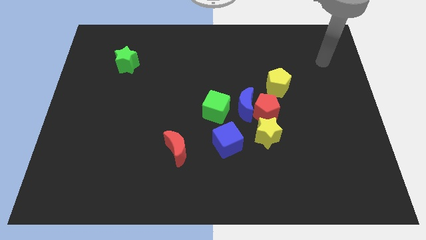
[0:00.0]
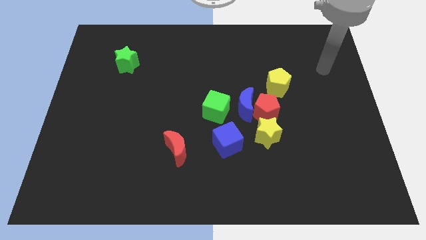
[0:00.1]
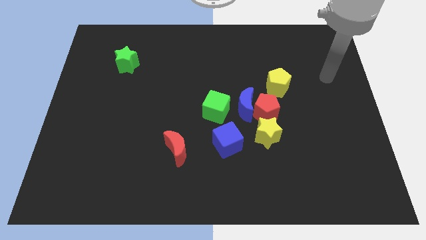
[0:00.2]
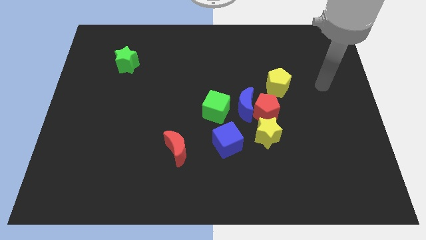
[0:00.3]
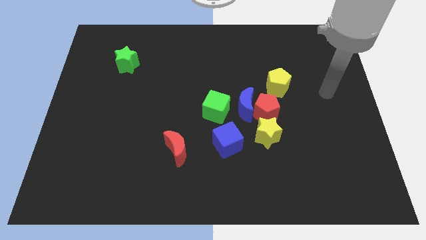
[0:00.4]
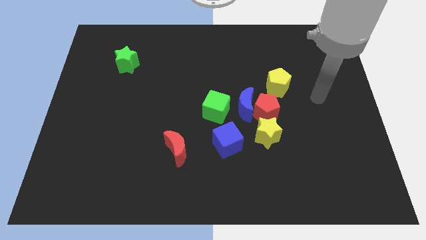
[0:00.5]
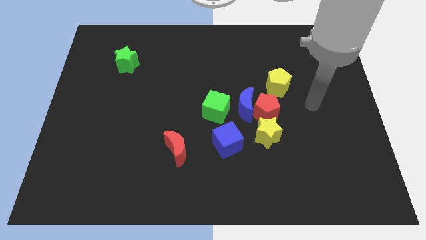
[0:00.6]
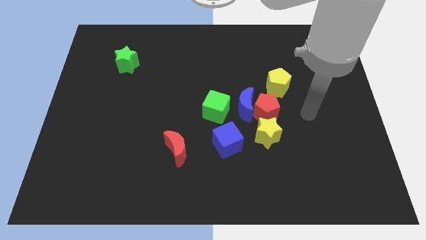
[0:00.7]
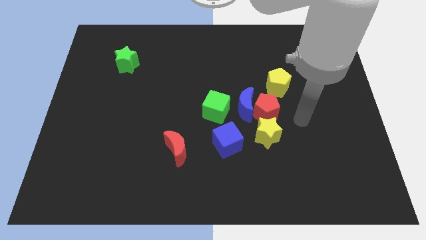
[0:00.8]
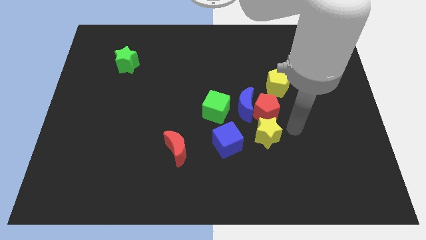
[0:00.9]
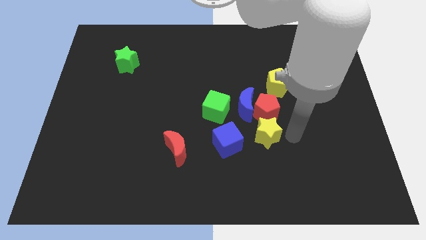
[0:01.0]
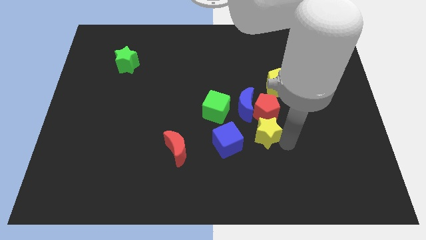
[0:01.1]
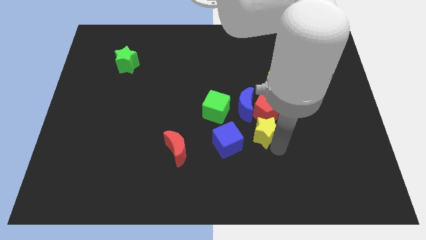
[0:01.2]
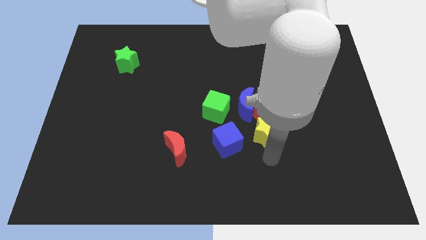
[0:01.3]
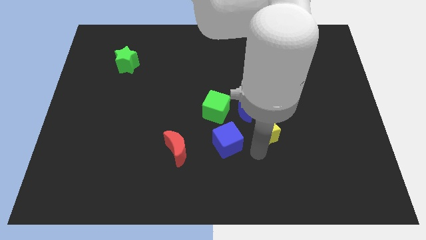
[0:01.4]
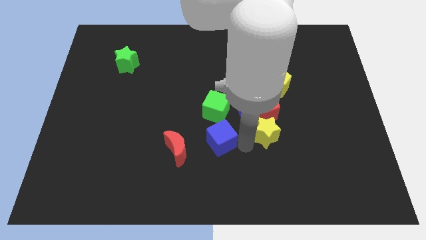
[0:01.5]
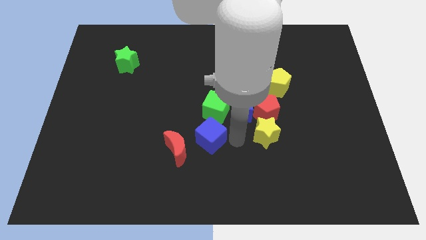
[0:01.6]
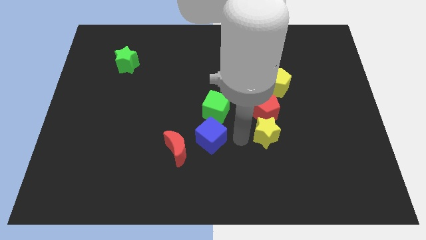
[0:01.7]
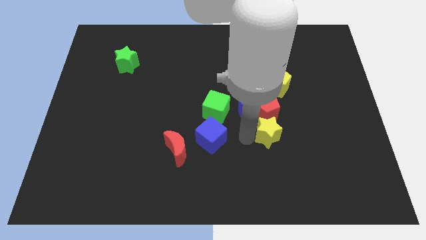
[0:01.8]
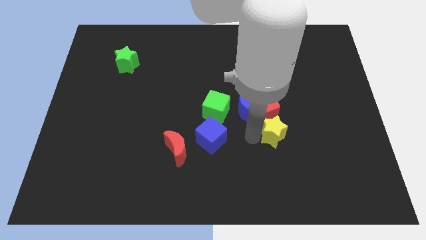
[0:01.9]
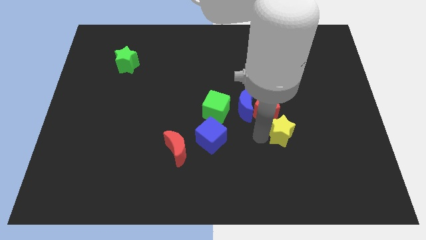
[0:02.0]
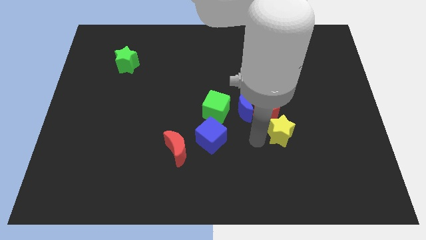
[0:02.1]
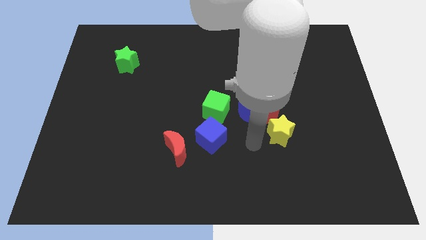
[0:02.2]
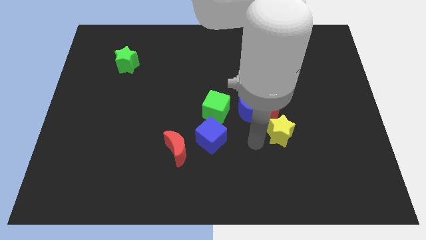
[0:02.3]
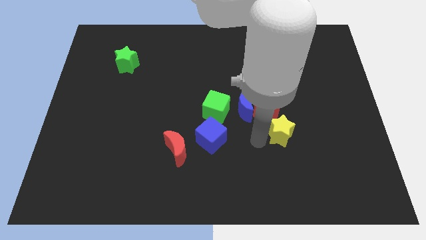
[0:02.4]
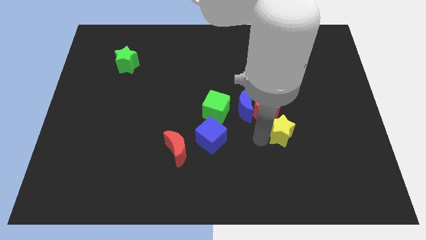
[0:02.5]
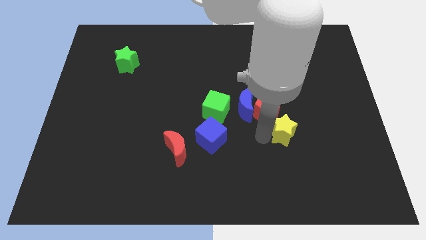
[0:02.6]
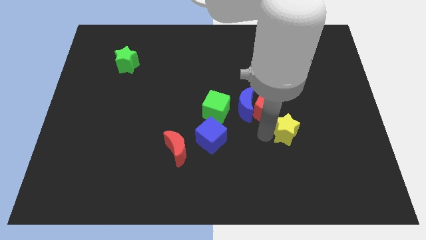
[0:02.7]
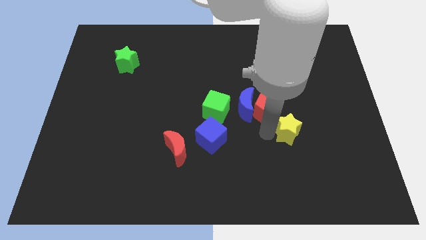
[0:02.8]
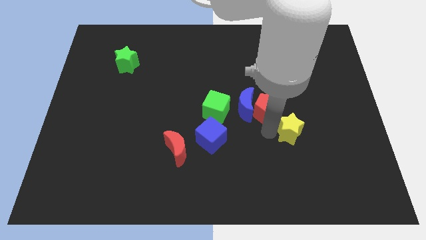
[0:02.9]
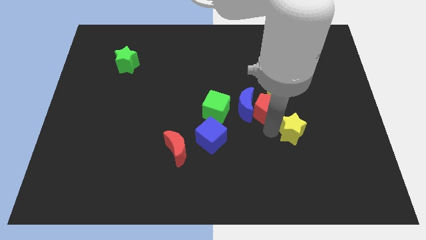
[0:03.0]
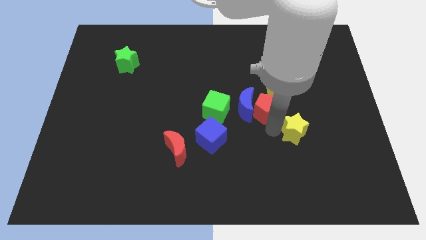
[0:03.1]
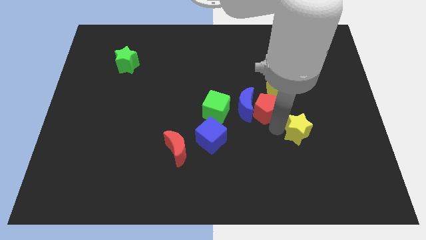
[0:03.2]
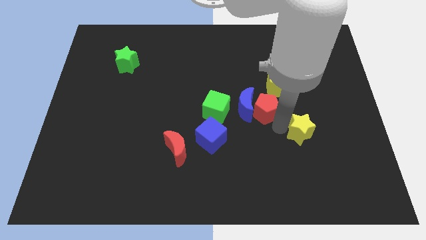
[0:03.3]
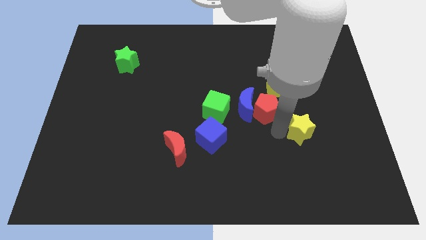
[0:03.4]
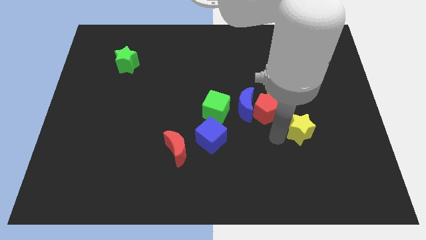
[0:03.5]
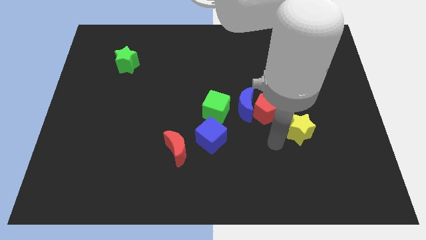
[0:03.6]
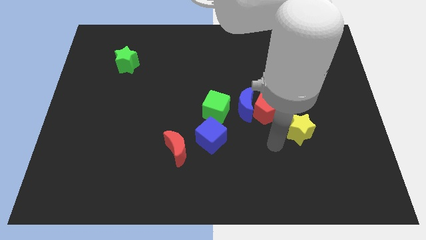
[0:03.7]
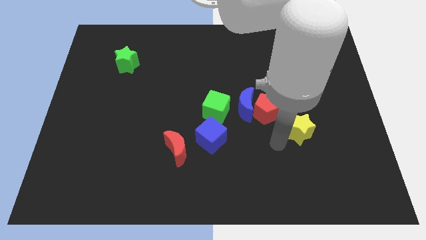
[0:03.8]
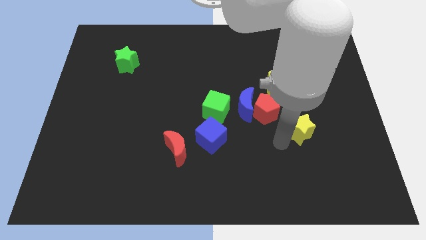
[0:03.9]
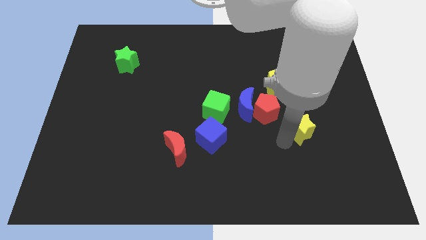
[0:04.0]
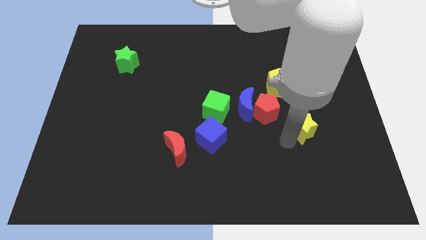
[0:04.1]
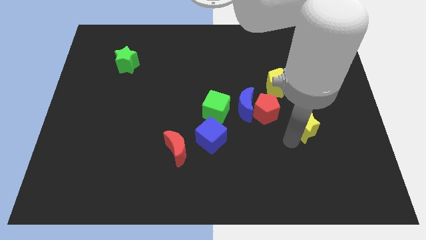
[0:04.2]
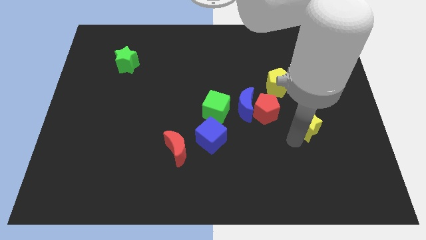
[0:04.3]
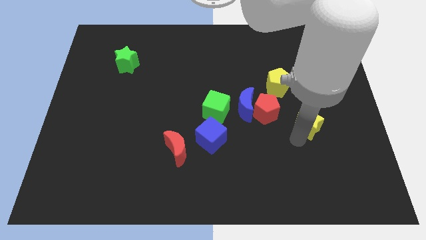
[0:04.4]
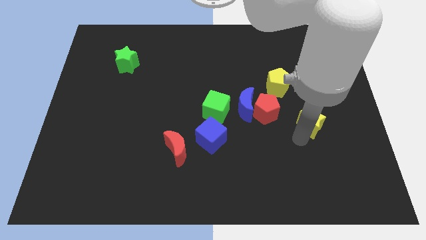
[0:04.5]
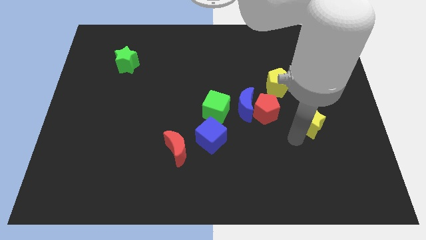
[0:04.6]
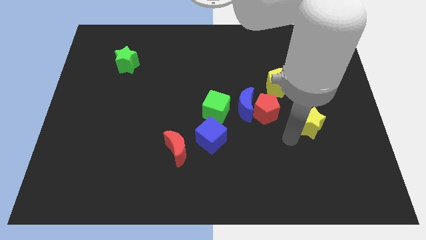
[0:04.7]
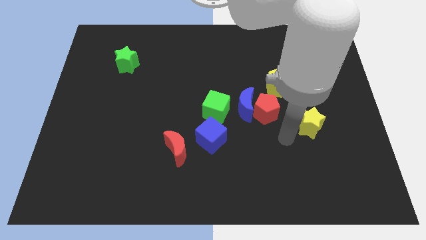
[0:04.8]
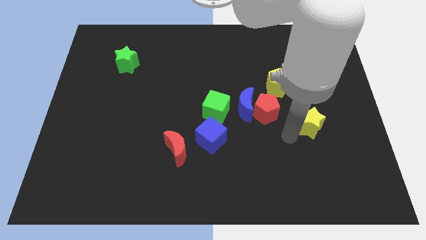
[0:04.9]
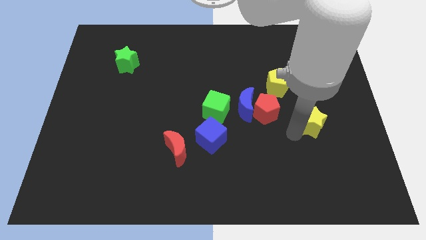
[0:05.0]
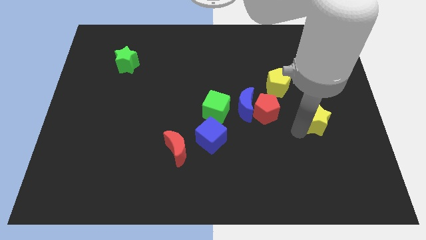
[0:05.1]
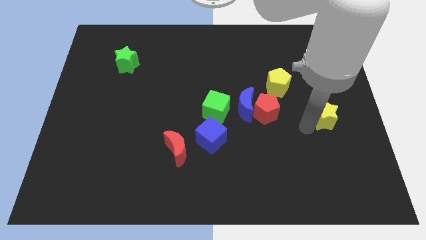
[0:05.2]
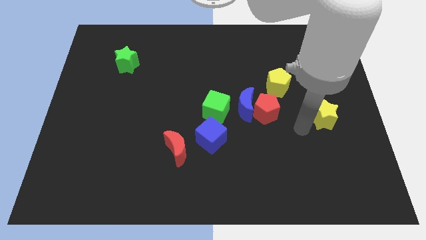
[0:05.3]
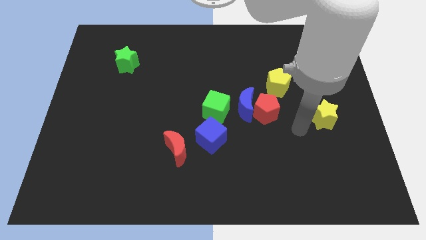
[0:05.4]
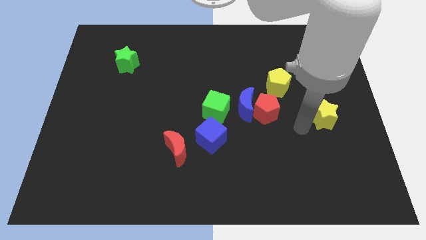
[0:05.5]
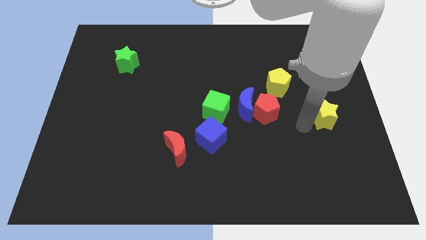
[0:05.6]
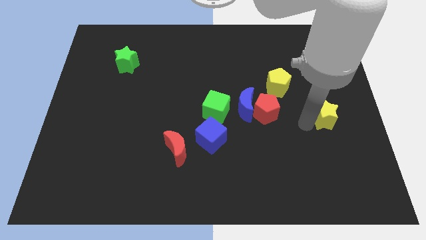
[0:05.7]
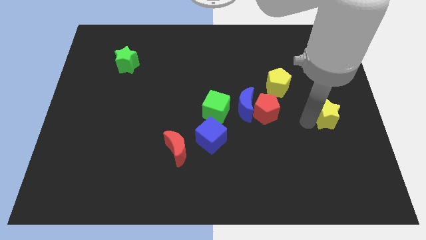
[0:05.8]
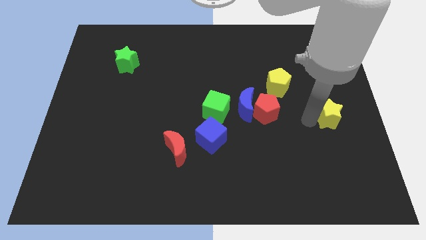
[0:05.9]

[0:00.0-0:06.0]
push the yellow star to the right side

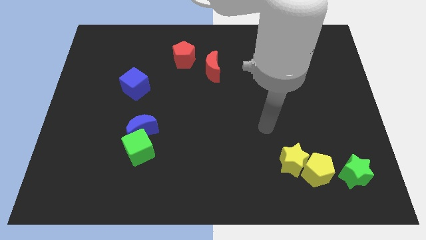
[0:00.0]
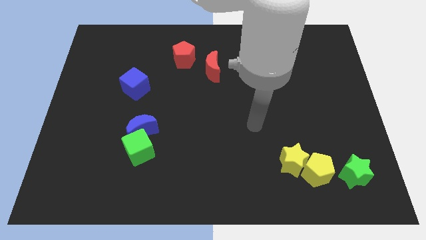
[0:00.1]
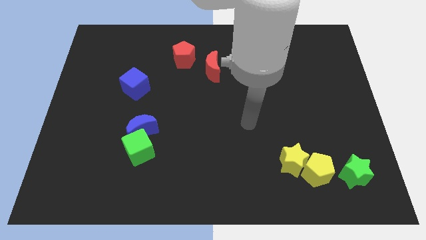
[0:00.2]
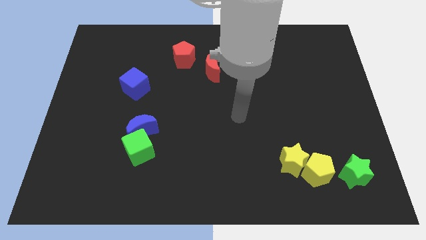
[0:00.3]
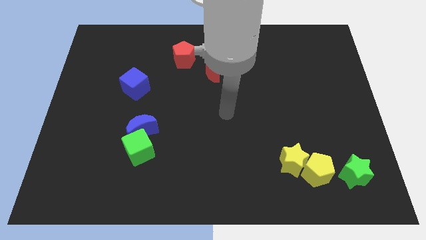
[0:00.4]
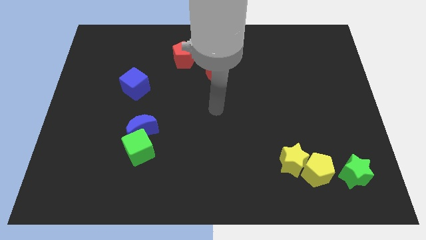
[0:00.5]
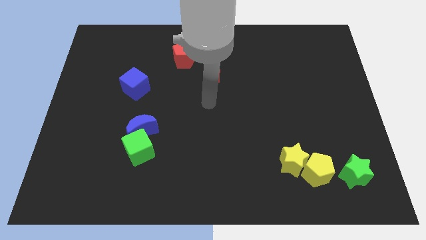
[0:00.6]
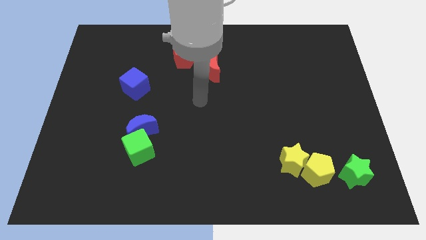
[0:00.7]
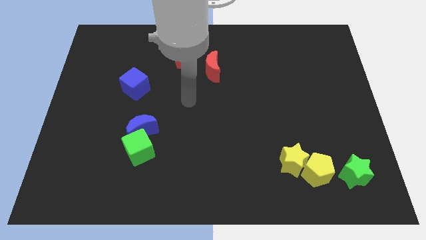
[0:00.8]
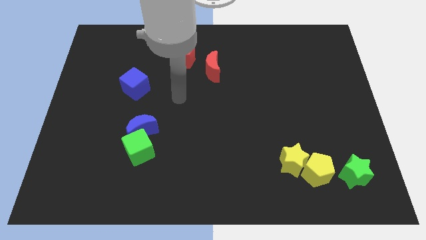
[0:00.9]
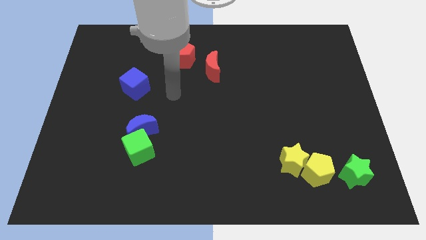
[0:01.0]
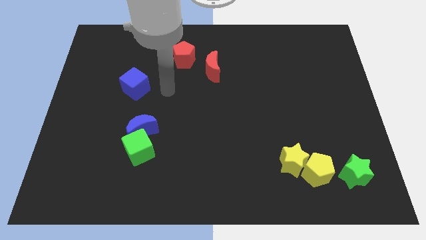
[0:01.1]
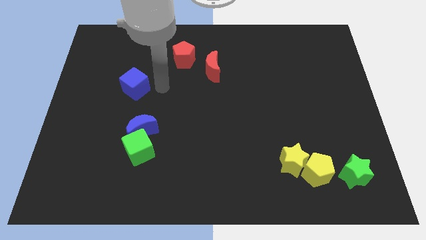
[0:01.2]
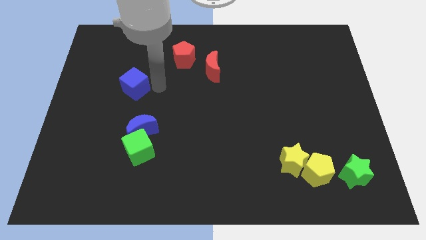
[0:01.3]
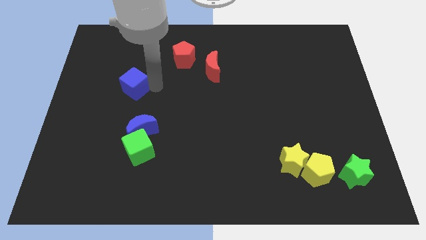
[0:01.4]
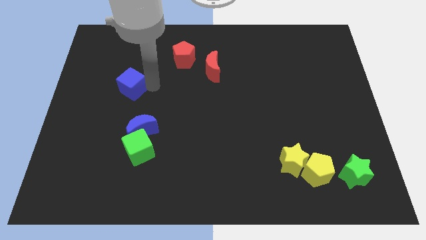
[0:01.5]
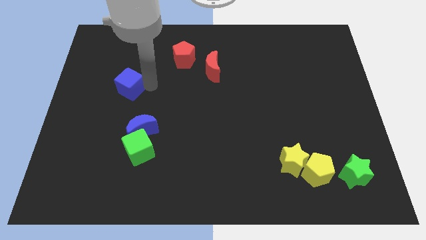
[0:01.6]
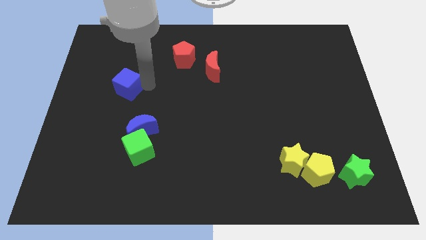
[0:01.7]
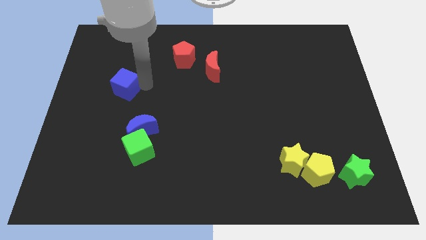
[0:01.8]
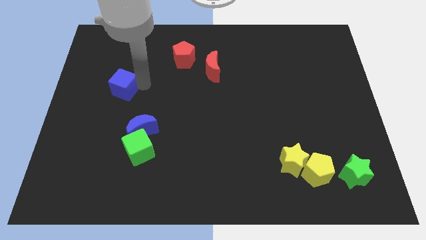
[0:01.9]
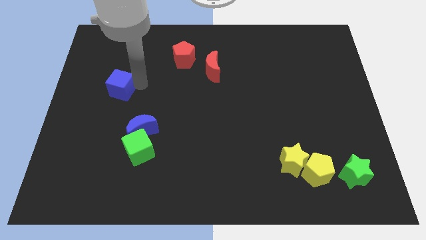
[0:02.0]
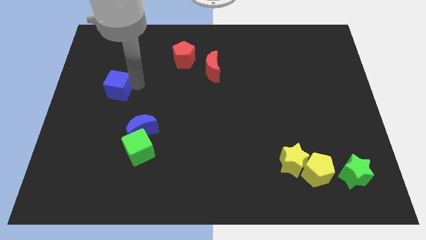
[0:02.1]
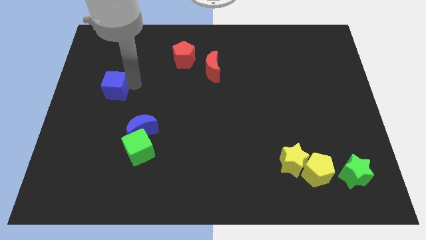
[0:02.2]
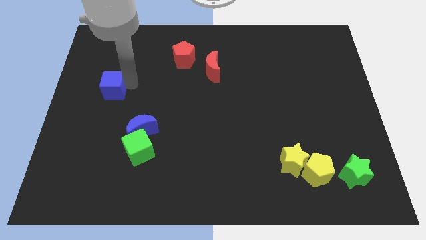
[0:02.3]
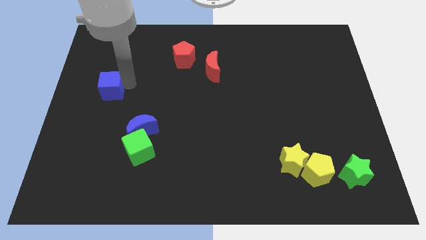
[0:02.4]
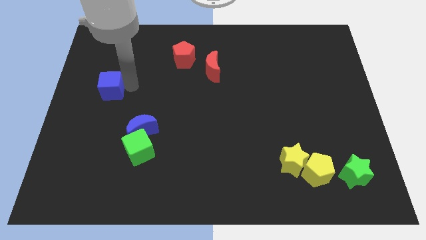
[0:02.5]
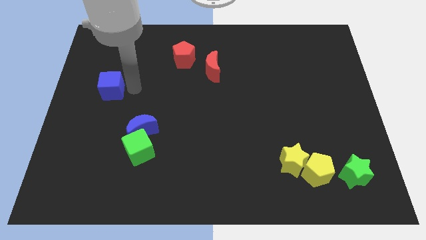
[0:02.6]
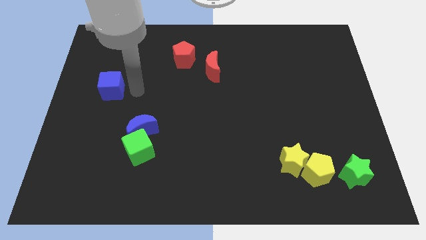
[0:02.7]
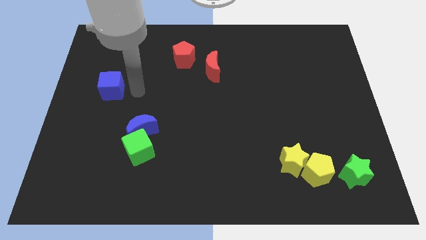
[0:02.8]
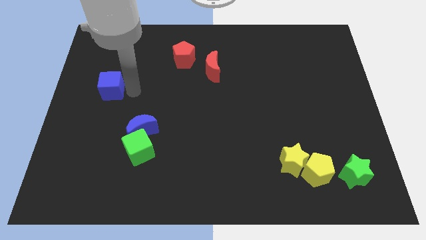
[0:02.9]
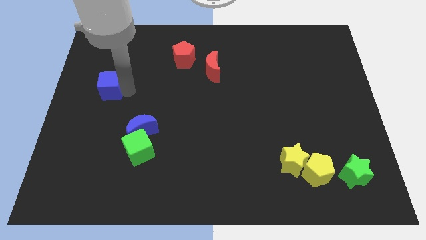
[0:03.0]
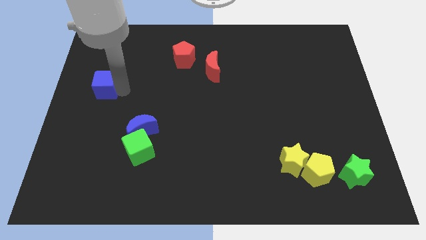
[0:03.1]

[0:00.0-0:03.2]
move the blue cube to the center left
